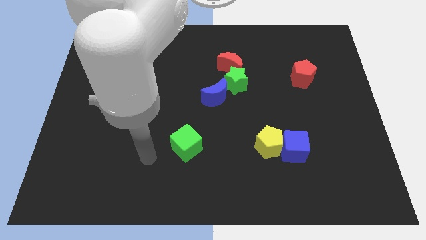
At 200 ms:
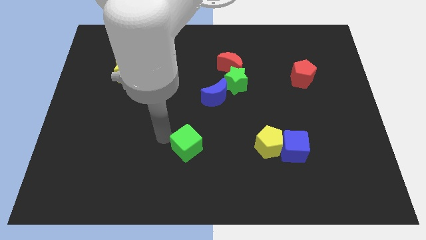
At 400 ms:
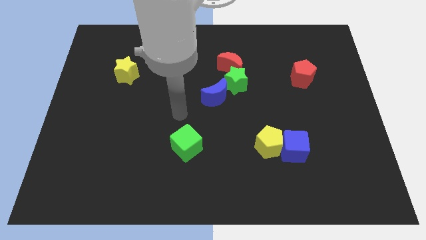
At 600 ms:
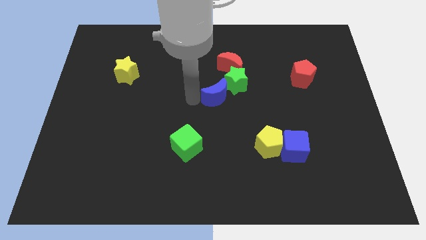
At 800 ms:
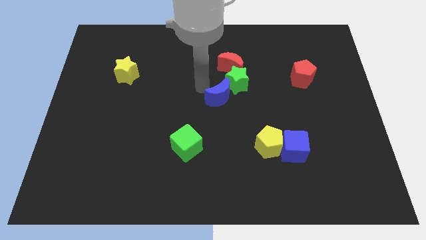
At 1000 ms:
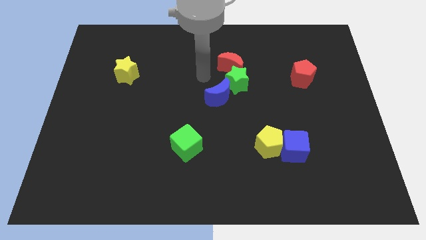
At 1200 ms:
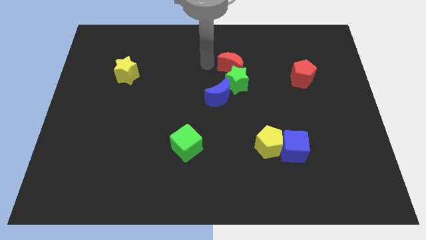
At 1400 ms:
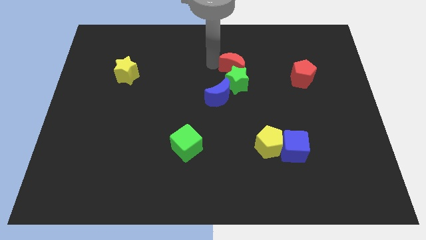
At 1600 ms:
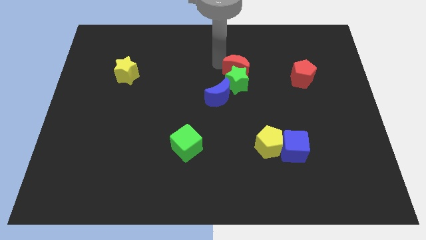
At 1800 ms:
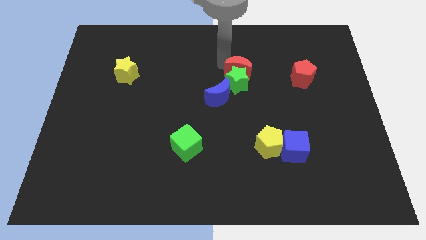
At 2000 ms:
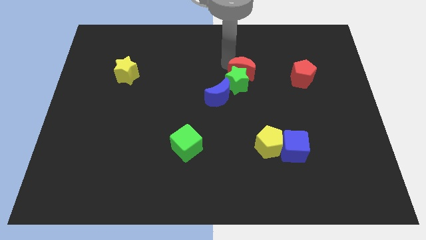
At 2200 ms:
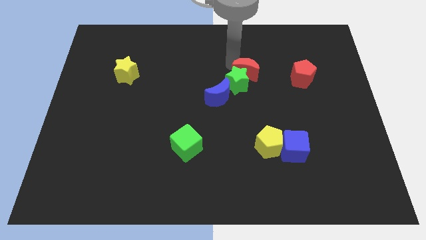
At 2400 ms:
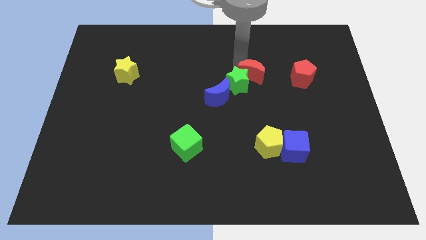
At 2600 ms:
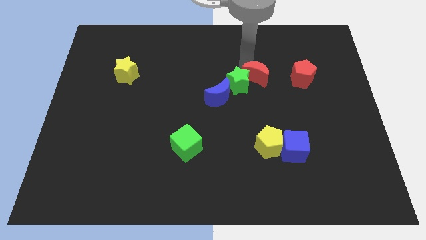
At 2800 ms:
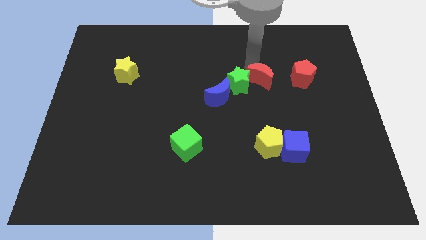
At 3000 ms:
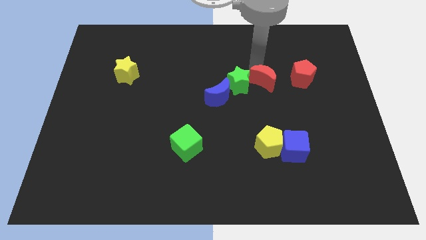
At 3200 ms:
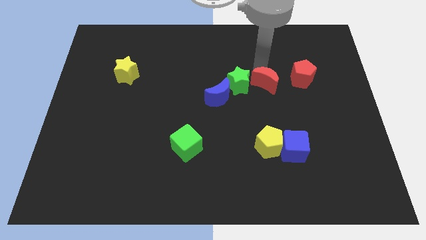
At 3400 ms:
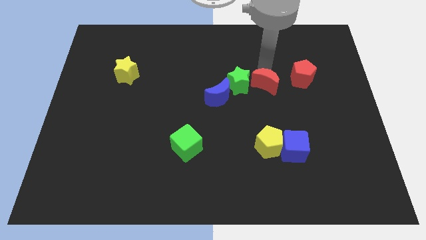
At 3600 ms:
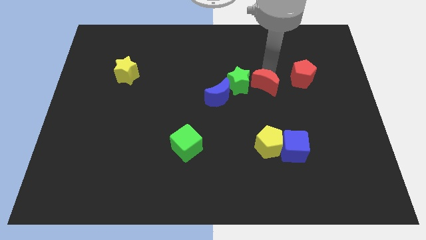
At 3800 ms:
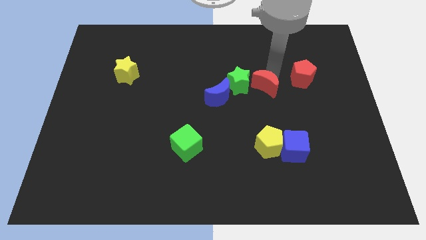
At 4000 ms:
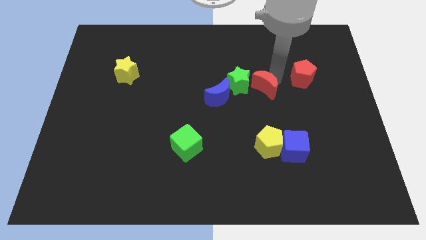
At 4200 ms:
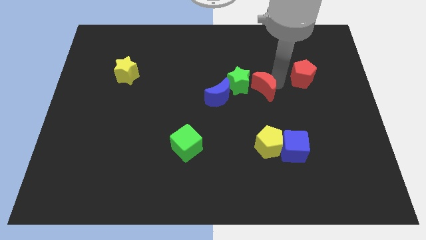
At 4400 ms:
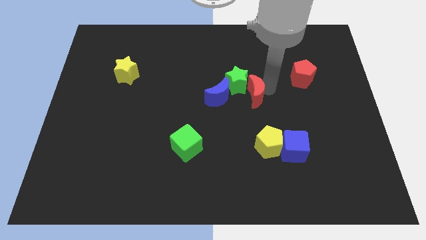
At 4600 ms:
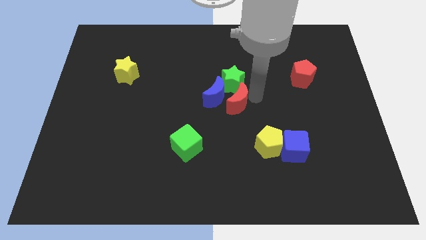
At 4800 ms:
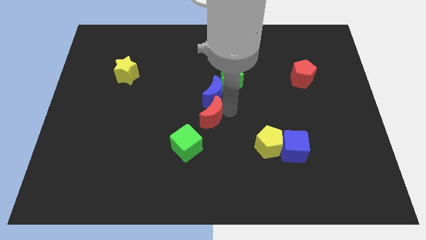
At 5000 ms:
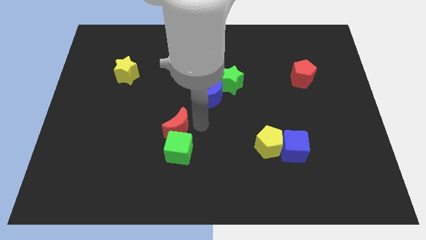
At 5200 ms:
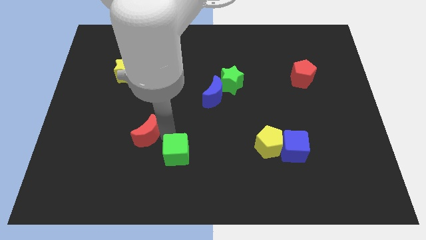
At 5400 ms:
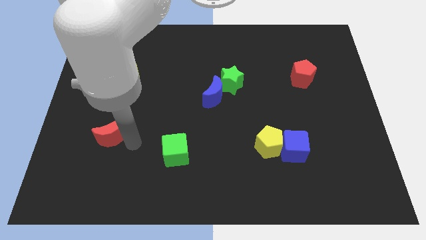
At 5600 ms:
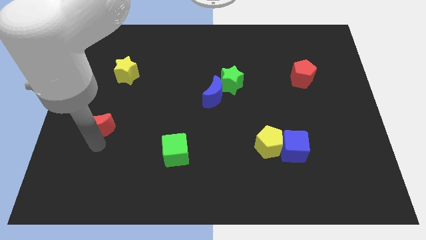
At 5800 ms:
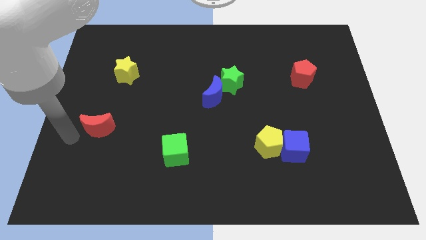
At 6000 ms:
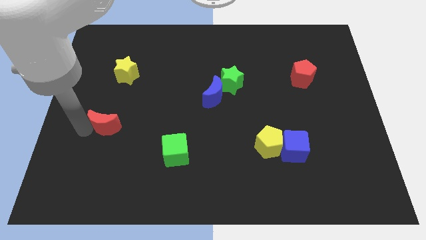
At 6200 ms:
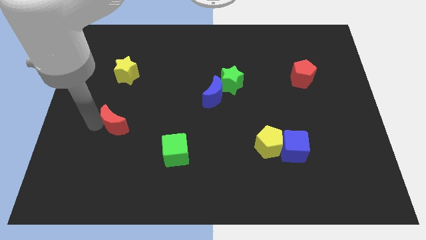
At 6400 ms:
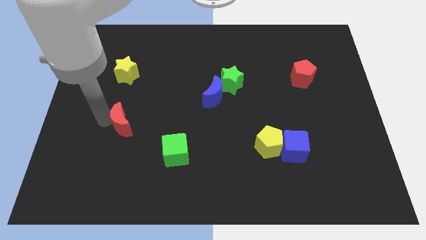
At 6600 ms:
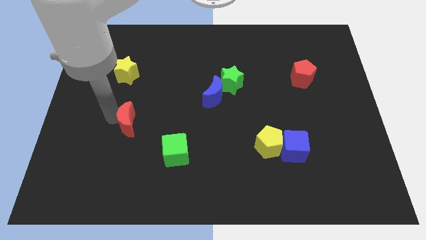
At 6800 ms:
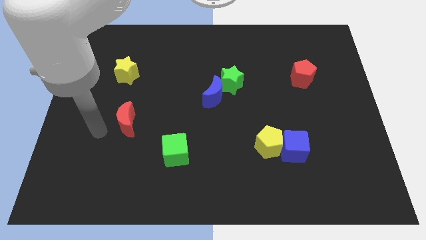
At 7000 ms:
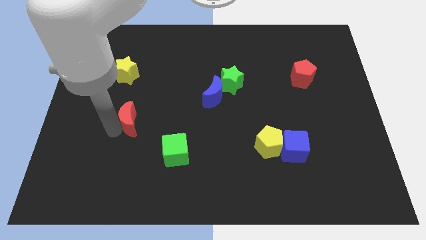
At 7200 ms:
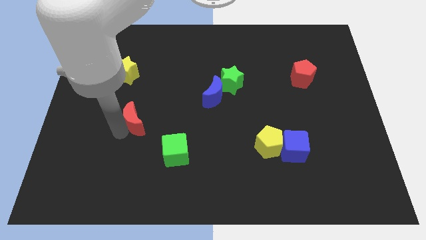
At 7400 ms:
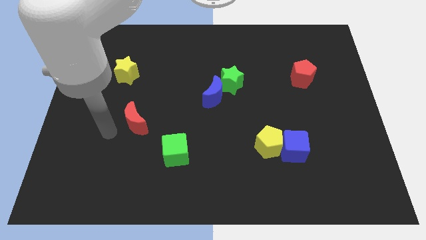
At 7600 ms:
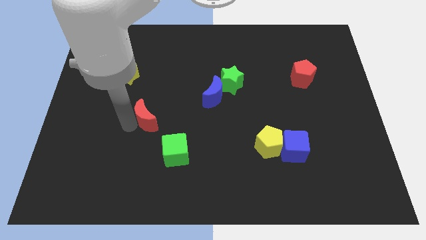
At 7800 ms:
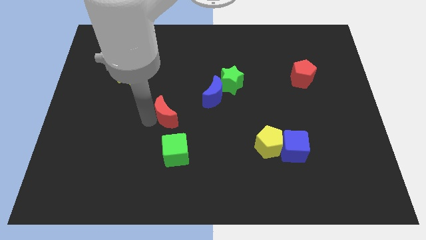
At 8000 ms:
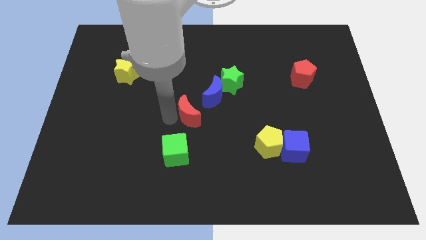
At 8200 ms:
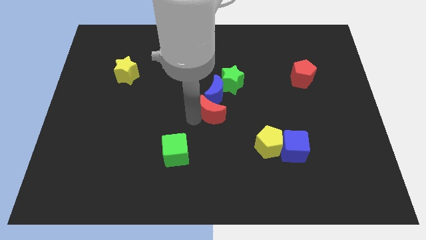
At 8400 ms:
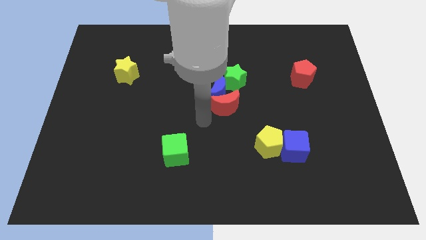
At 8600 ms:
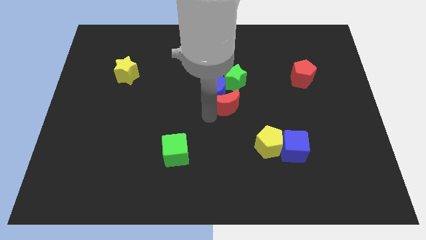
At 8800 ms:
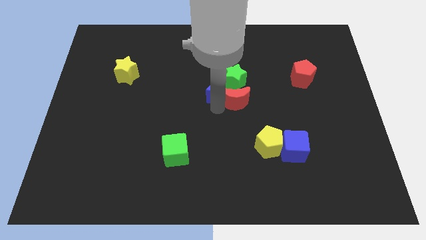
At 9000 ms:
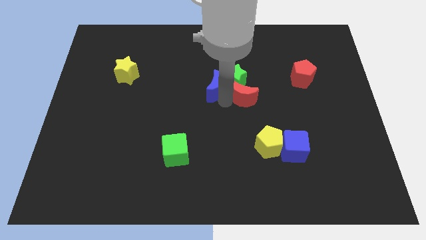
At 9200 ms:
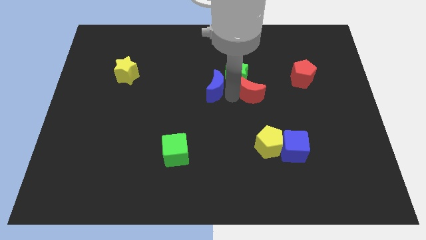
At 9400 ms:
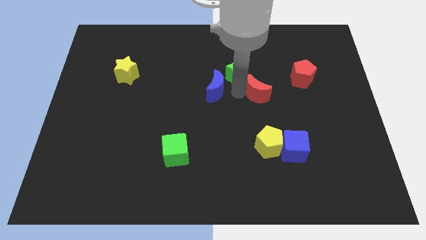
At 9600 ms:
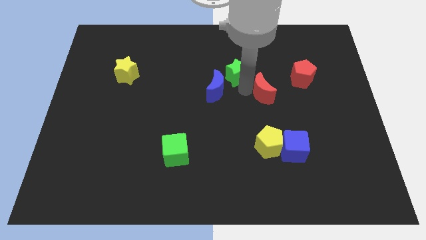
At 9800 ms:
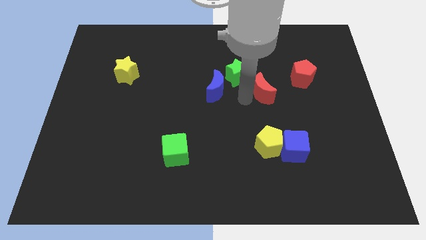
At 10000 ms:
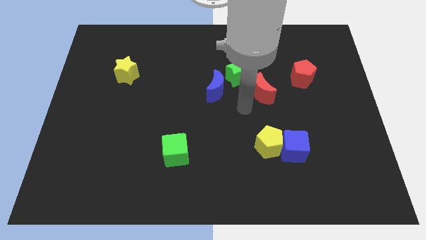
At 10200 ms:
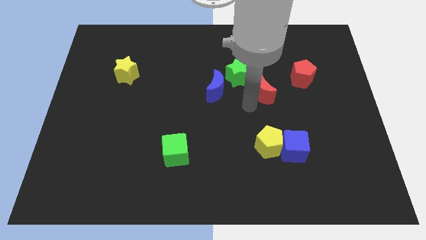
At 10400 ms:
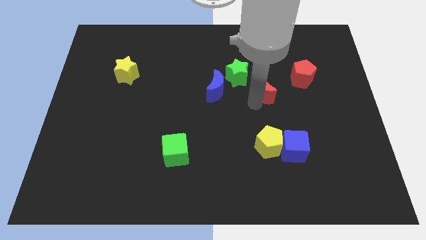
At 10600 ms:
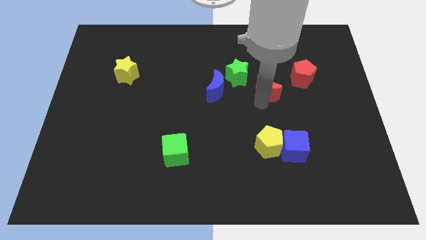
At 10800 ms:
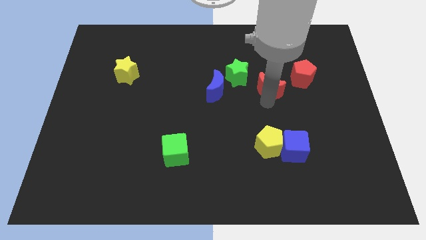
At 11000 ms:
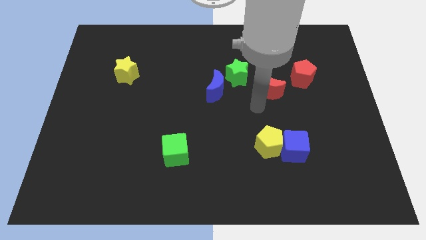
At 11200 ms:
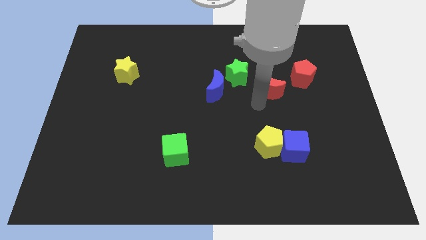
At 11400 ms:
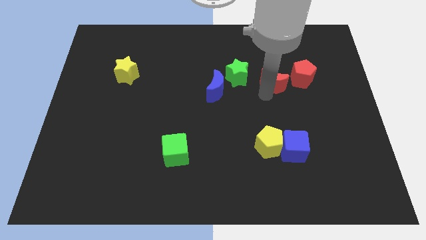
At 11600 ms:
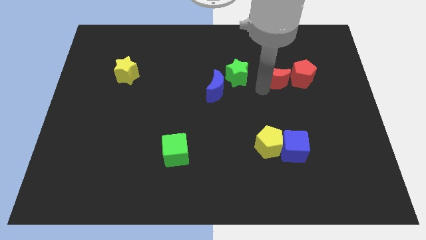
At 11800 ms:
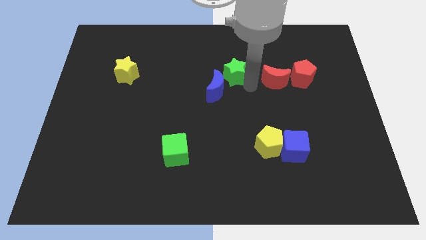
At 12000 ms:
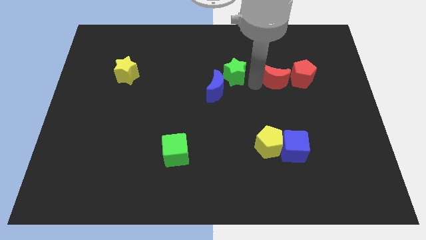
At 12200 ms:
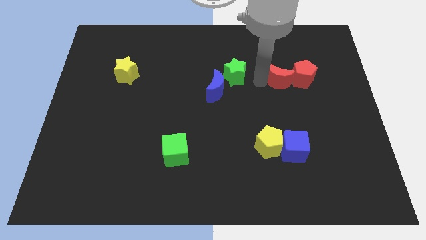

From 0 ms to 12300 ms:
put the red moon next to the red pentagon
